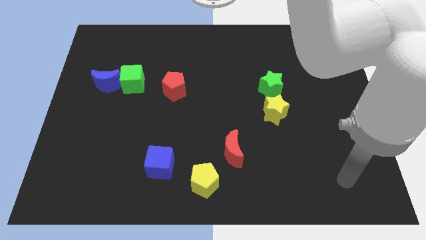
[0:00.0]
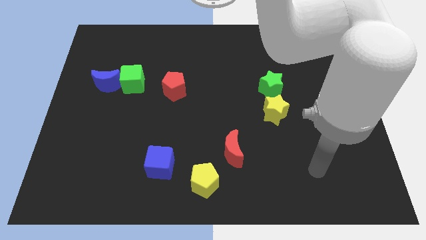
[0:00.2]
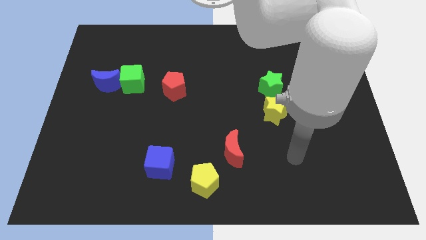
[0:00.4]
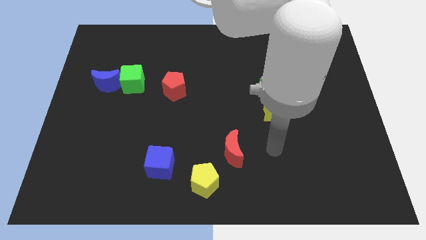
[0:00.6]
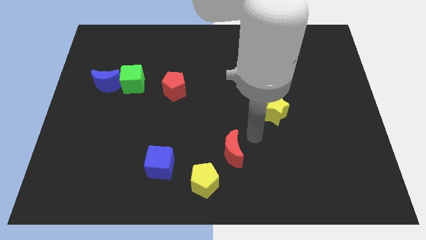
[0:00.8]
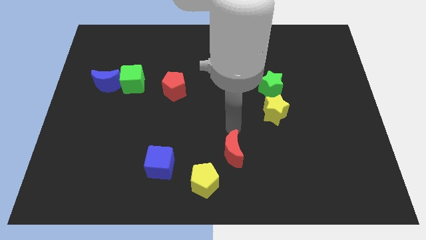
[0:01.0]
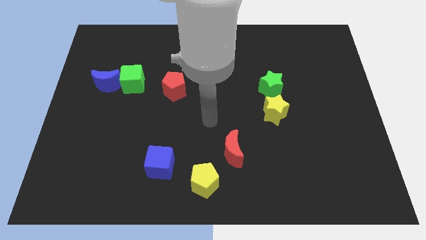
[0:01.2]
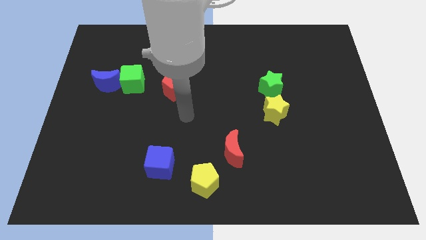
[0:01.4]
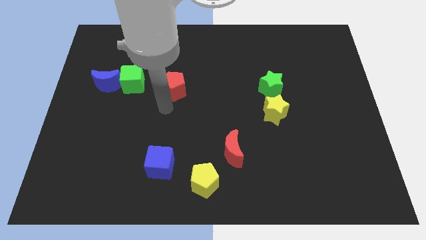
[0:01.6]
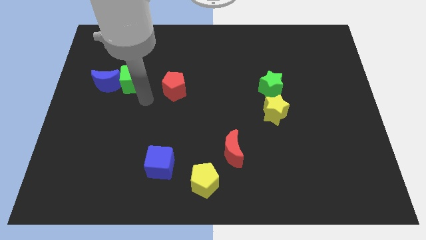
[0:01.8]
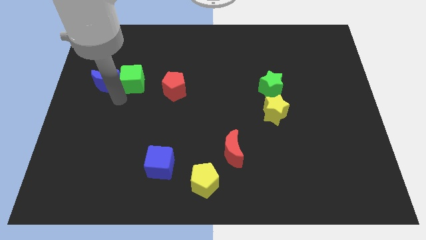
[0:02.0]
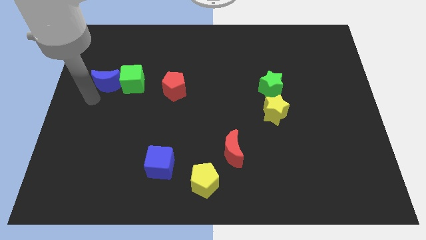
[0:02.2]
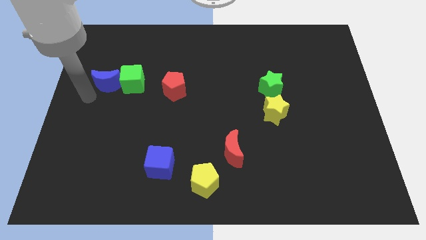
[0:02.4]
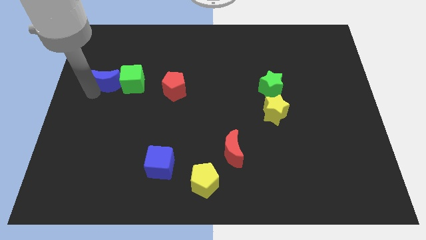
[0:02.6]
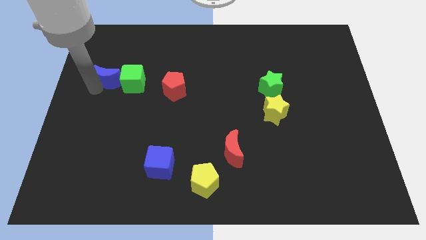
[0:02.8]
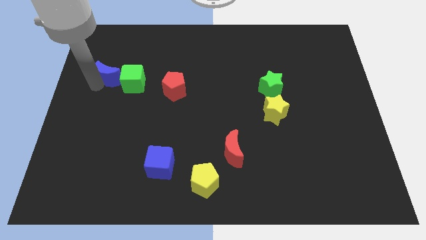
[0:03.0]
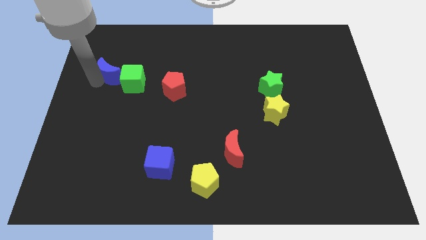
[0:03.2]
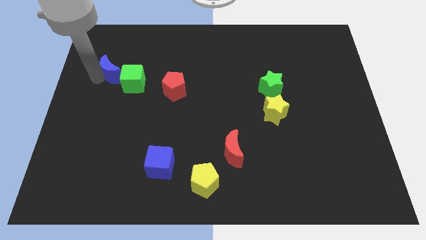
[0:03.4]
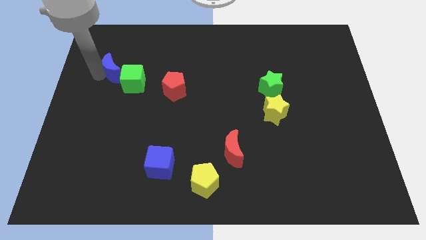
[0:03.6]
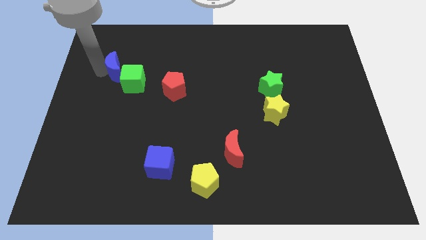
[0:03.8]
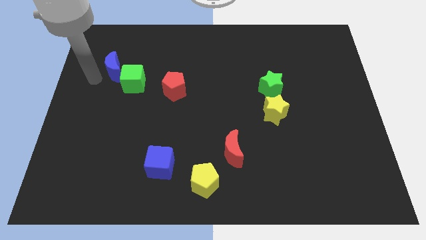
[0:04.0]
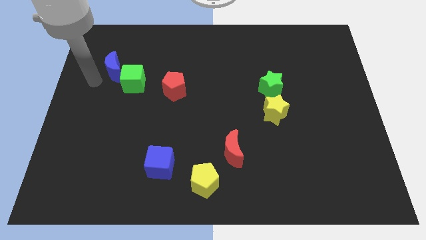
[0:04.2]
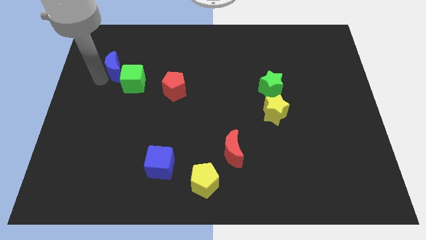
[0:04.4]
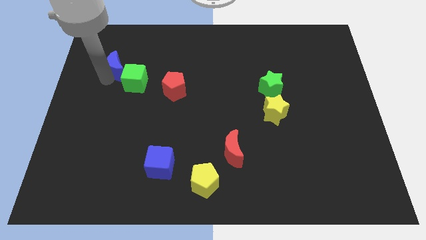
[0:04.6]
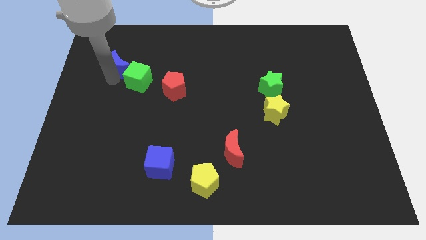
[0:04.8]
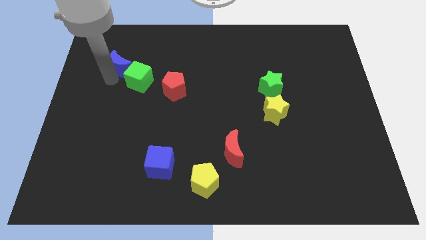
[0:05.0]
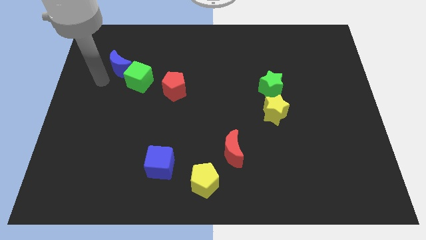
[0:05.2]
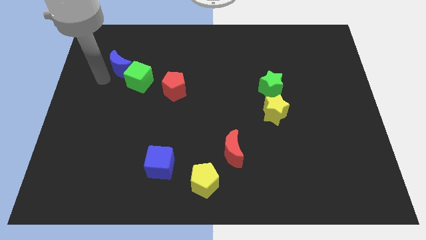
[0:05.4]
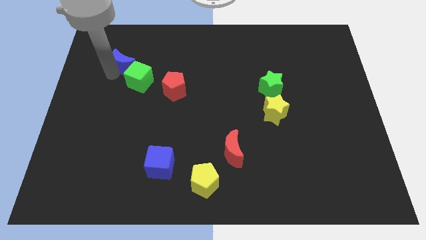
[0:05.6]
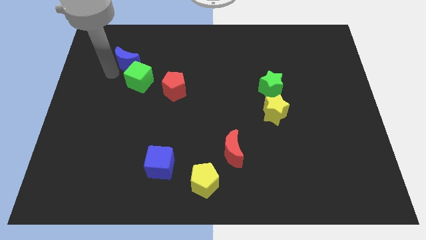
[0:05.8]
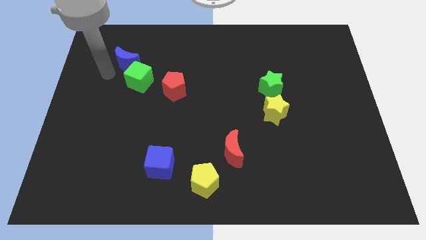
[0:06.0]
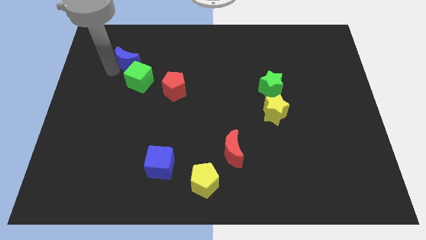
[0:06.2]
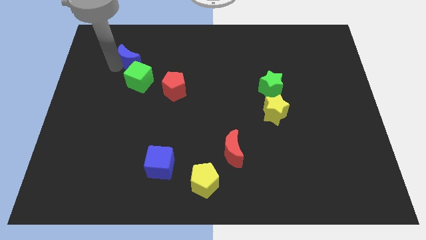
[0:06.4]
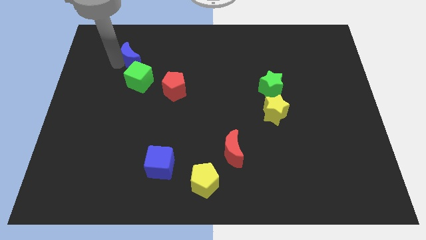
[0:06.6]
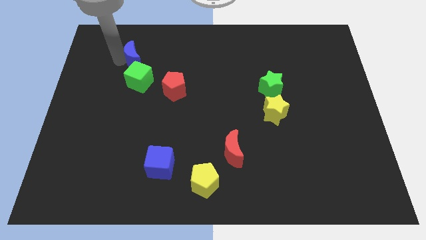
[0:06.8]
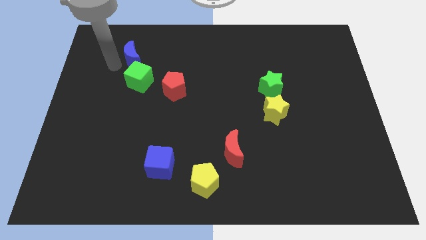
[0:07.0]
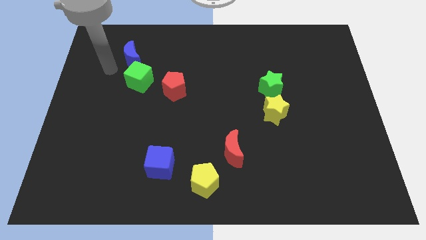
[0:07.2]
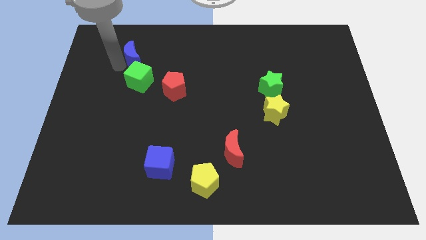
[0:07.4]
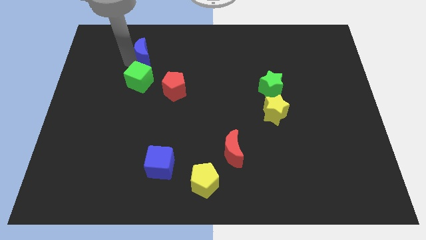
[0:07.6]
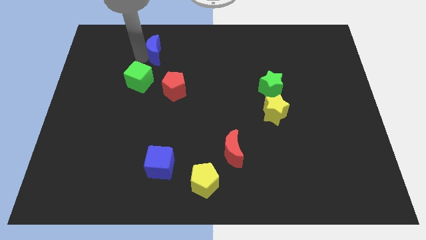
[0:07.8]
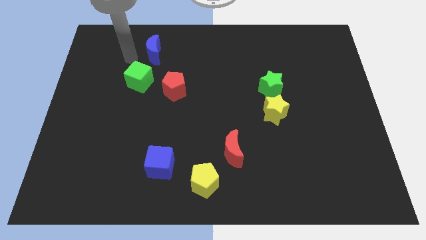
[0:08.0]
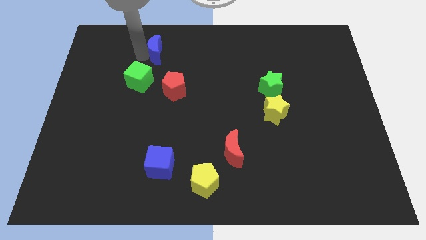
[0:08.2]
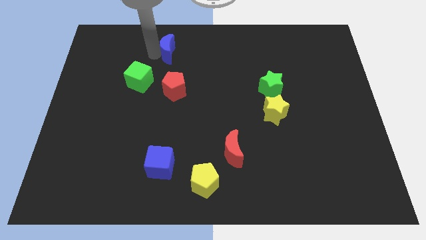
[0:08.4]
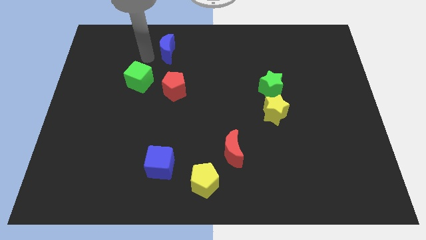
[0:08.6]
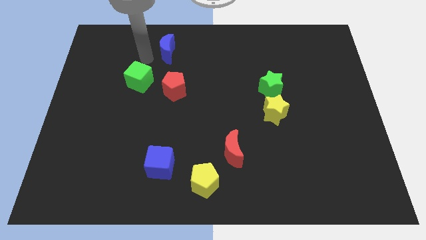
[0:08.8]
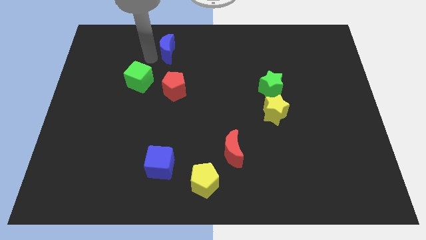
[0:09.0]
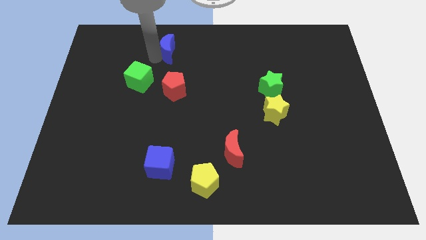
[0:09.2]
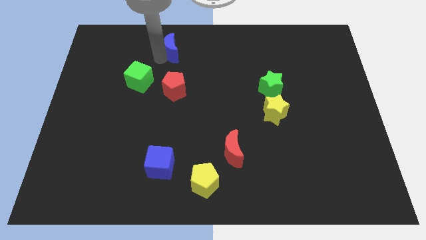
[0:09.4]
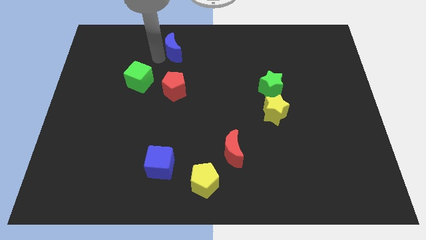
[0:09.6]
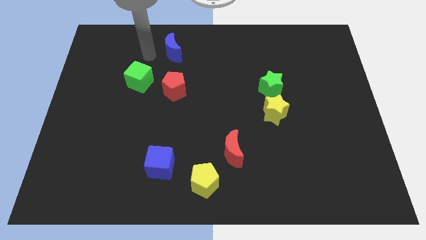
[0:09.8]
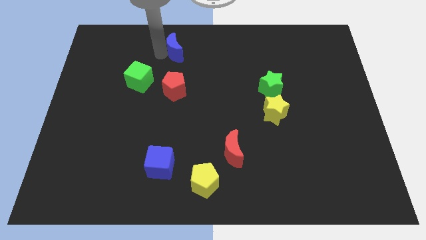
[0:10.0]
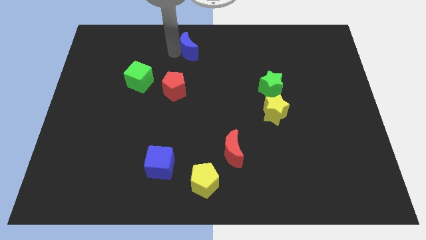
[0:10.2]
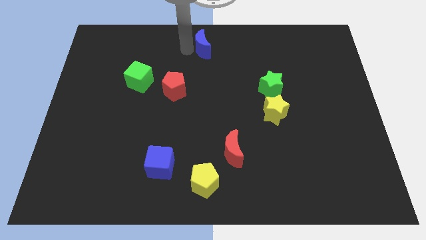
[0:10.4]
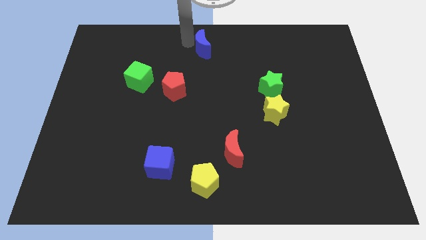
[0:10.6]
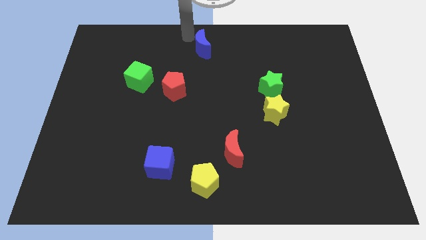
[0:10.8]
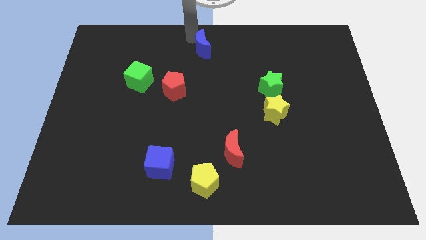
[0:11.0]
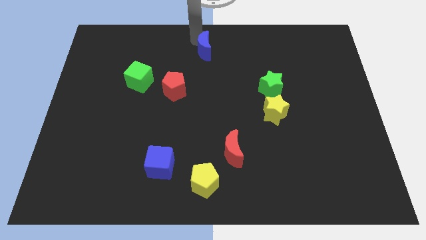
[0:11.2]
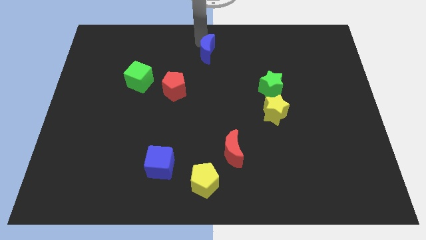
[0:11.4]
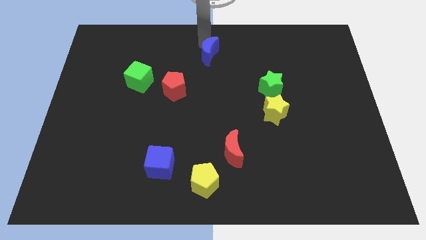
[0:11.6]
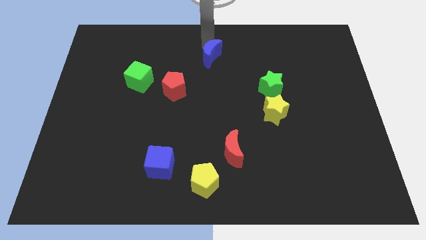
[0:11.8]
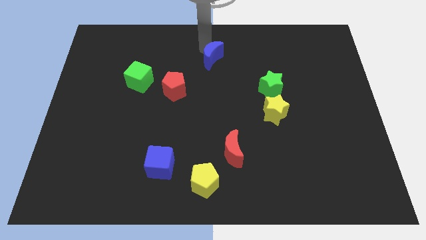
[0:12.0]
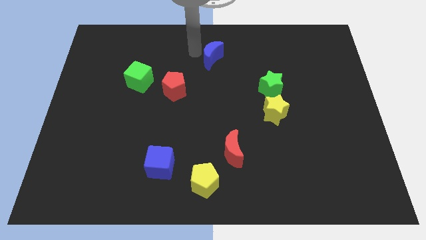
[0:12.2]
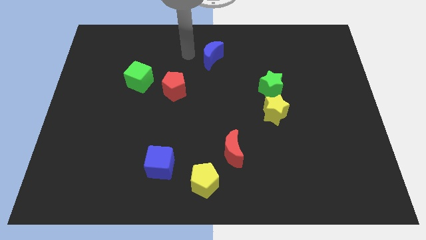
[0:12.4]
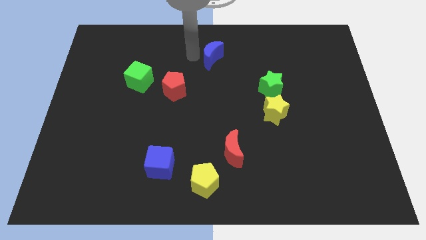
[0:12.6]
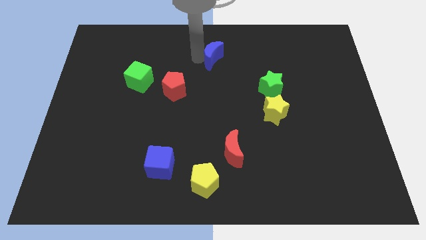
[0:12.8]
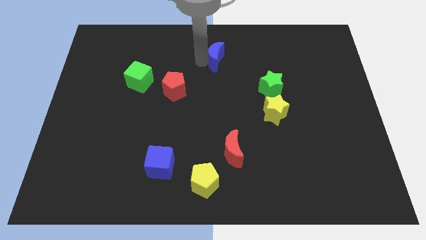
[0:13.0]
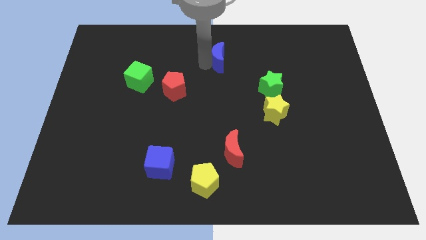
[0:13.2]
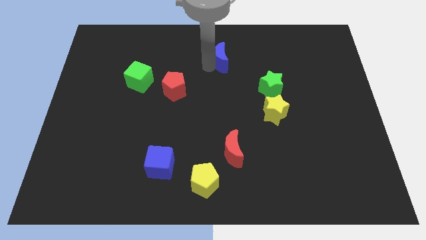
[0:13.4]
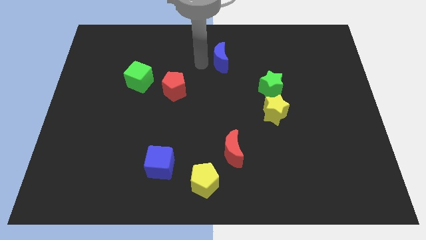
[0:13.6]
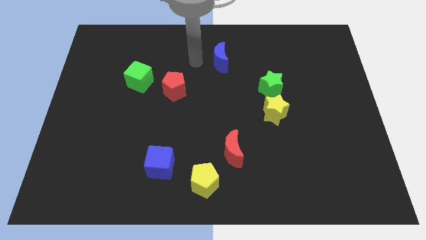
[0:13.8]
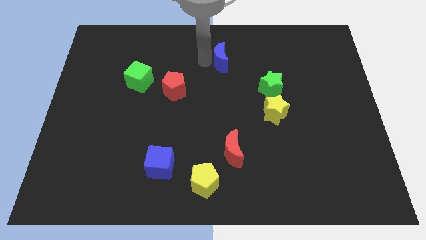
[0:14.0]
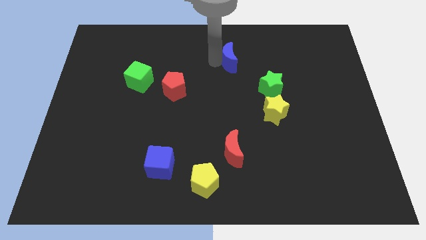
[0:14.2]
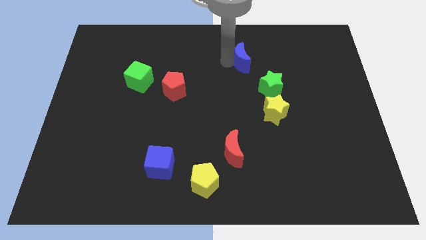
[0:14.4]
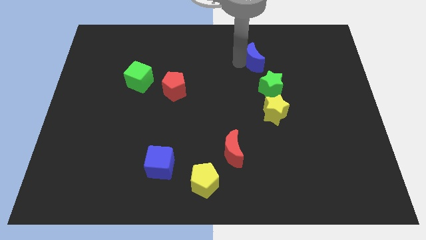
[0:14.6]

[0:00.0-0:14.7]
move the blue moon to the top of the green star
